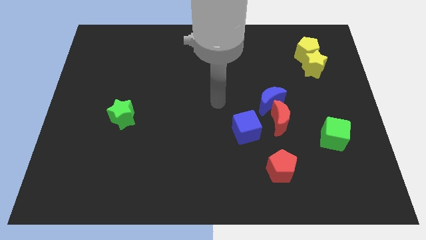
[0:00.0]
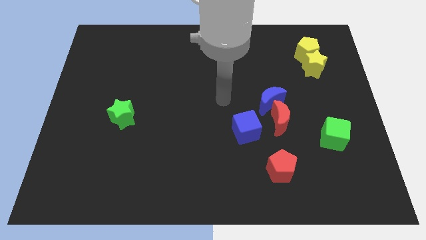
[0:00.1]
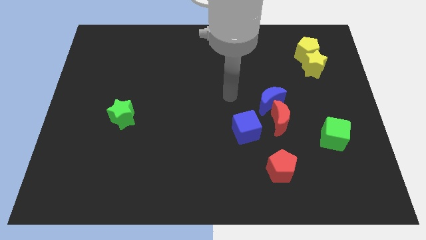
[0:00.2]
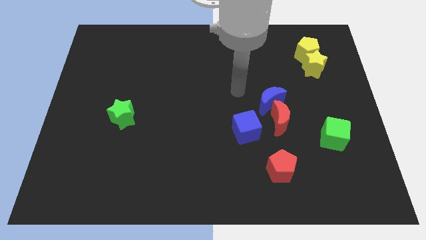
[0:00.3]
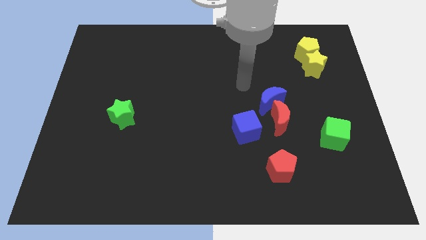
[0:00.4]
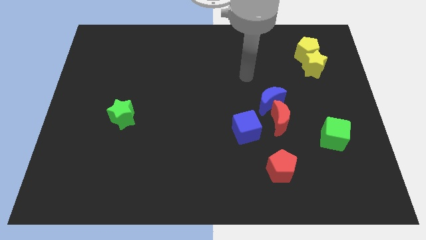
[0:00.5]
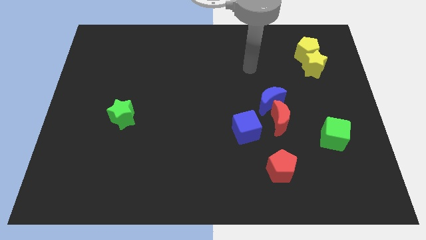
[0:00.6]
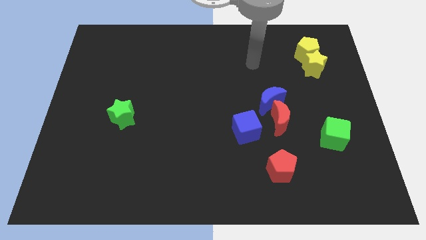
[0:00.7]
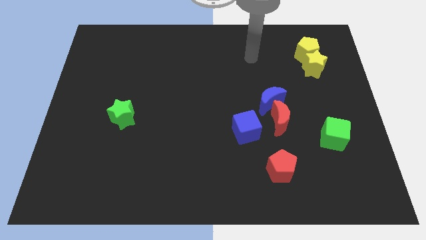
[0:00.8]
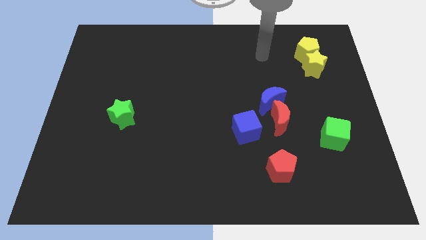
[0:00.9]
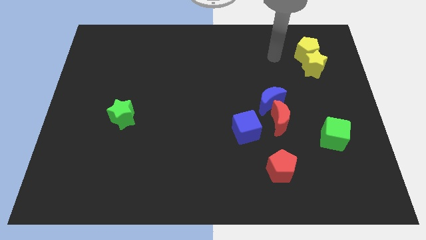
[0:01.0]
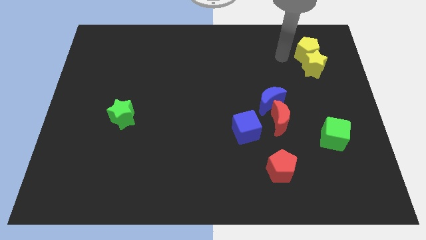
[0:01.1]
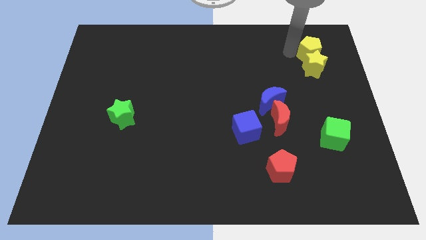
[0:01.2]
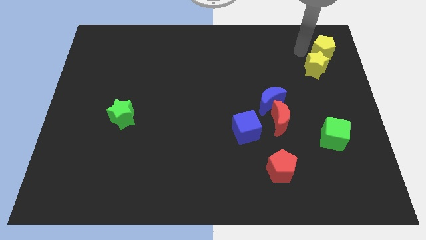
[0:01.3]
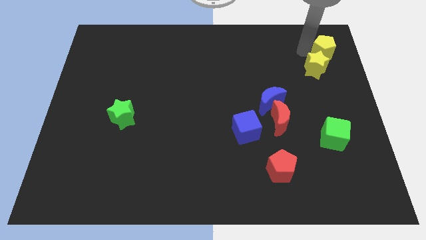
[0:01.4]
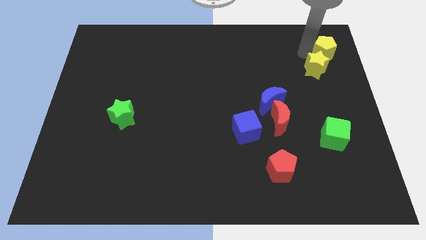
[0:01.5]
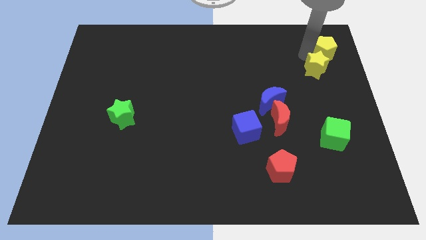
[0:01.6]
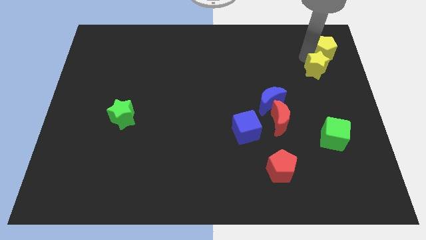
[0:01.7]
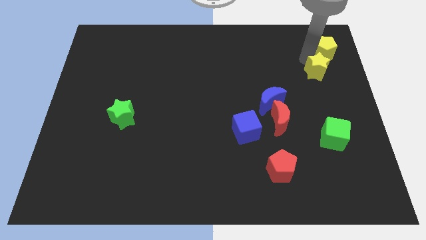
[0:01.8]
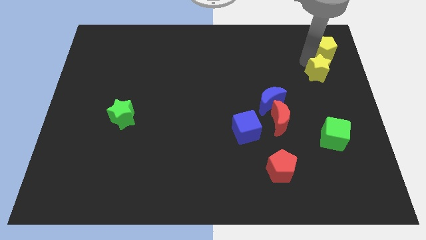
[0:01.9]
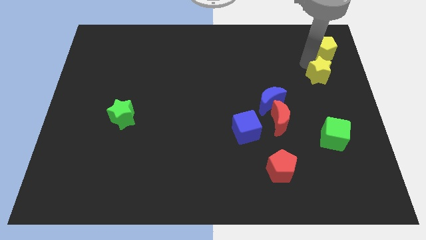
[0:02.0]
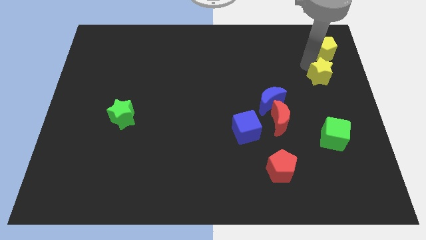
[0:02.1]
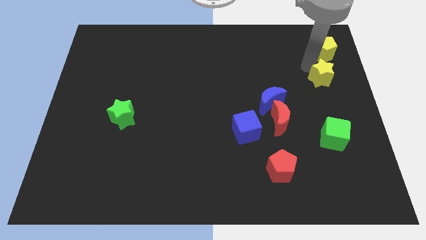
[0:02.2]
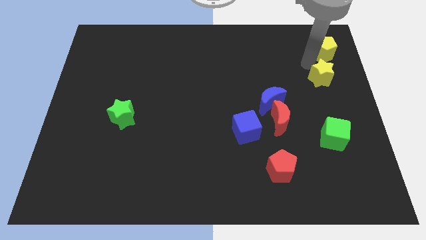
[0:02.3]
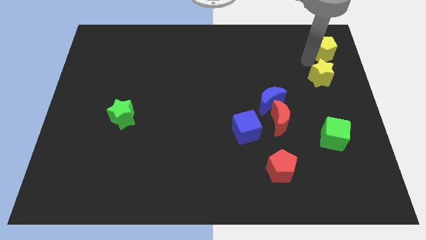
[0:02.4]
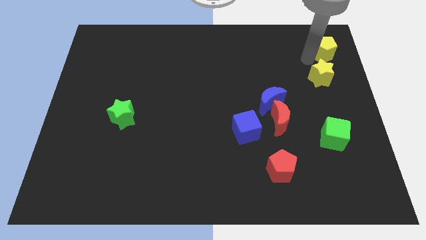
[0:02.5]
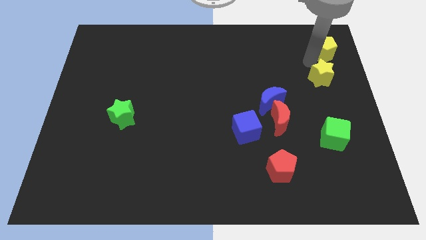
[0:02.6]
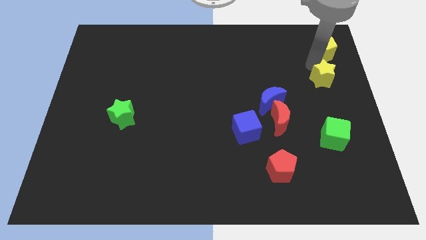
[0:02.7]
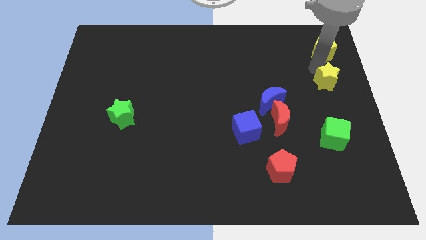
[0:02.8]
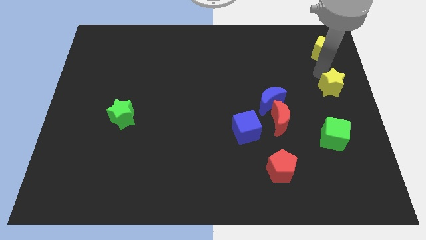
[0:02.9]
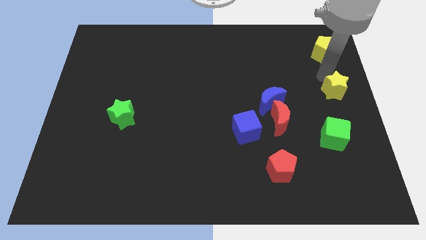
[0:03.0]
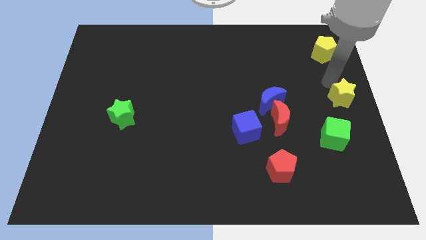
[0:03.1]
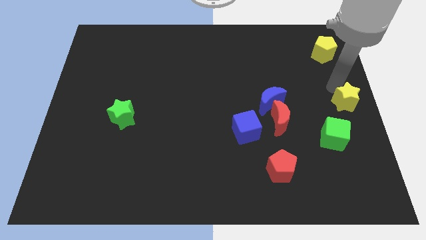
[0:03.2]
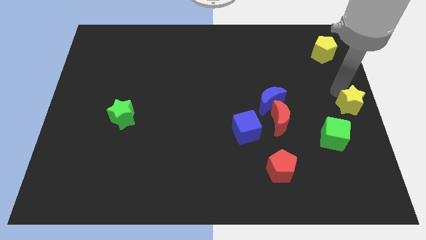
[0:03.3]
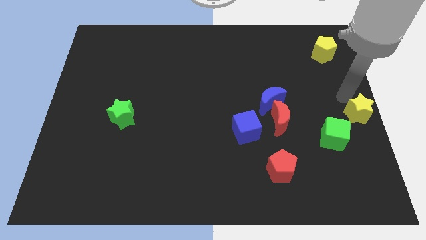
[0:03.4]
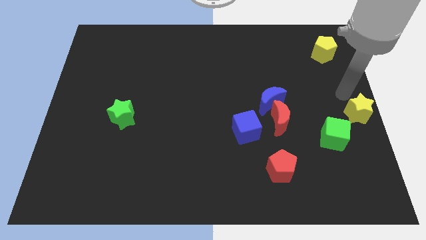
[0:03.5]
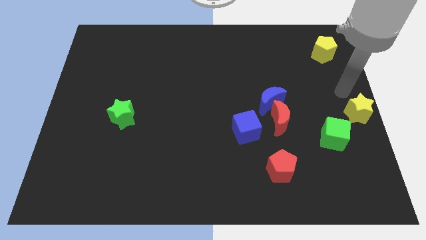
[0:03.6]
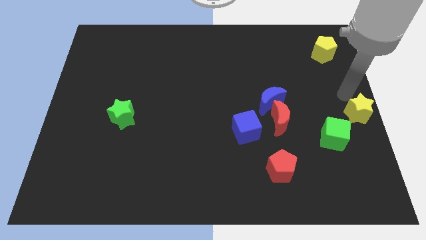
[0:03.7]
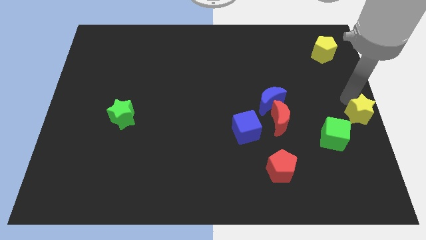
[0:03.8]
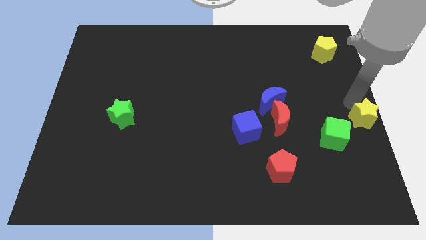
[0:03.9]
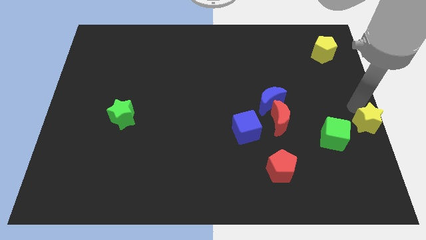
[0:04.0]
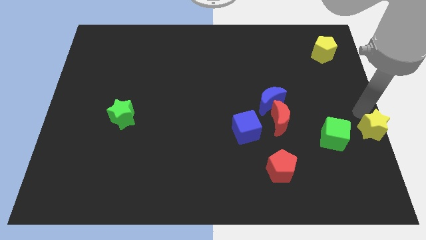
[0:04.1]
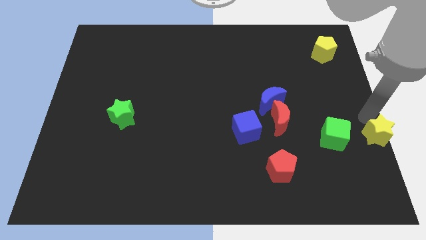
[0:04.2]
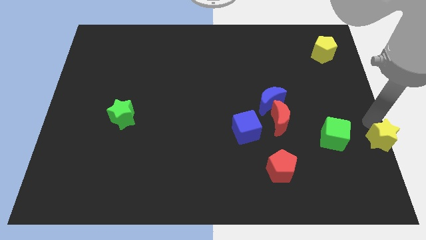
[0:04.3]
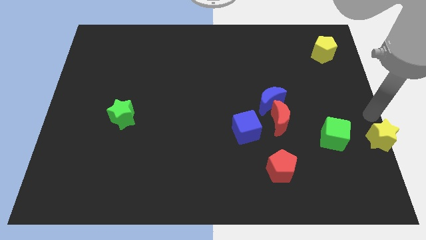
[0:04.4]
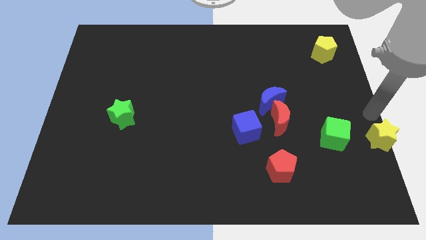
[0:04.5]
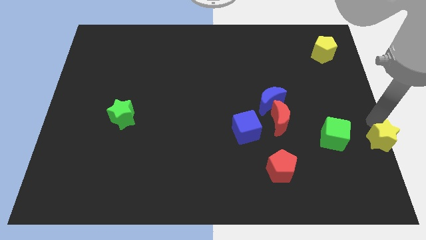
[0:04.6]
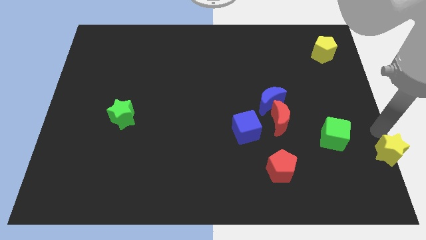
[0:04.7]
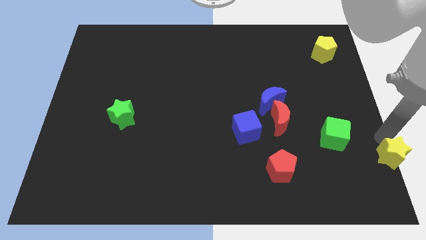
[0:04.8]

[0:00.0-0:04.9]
move the yellow star to the bottom right of the board

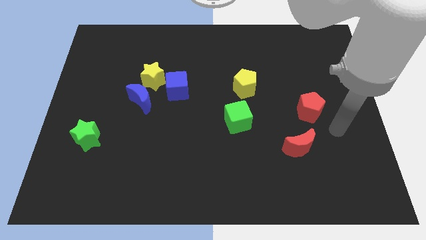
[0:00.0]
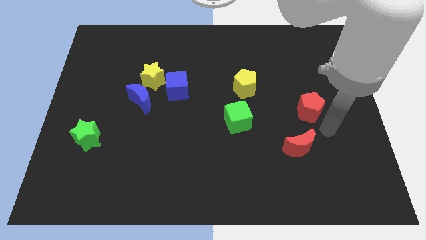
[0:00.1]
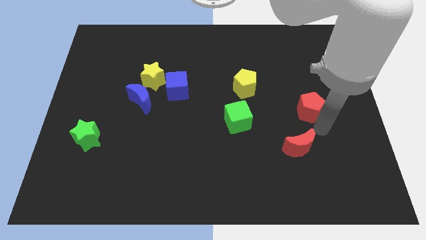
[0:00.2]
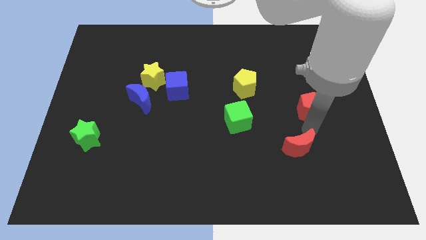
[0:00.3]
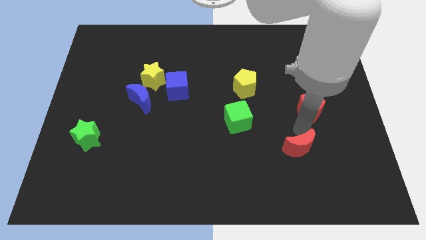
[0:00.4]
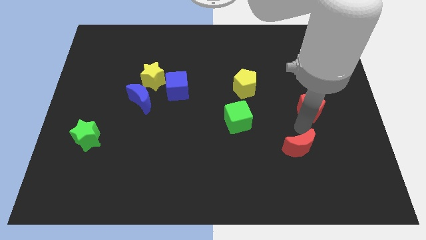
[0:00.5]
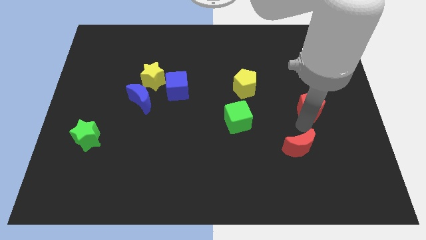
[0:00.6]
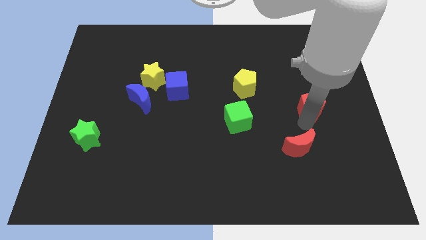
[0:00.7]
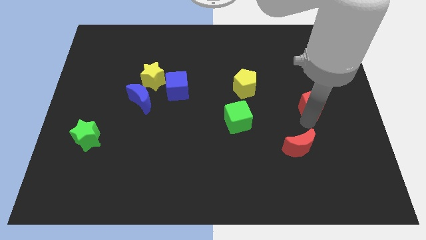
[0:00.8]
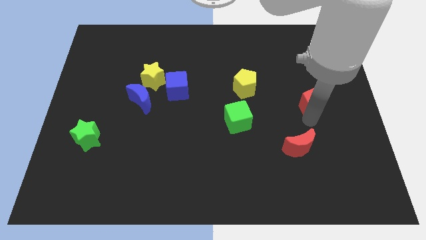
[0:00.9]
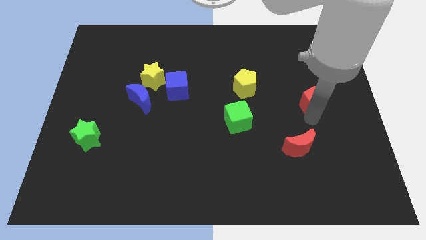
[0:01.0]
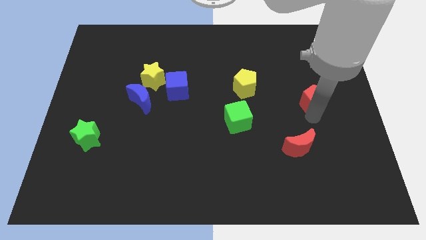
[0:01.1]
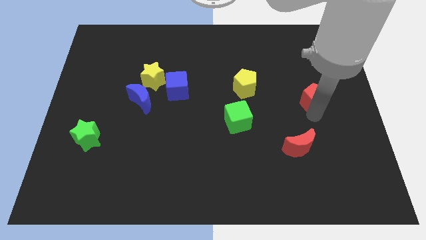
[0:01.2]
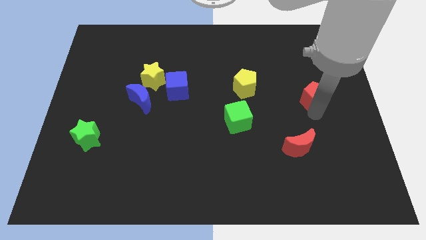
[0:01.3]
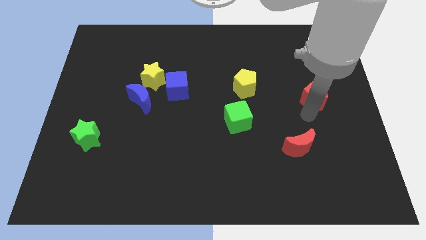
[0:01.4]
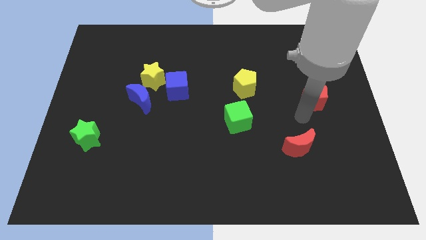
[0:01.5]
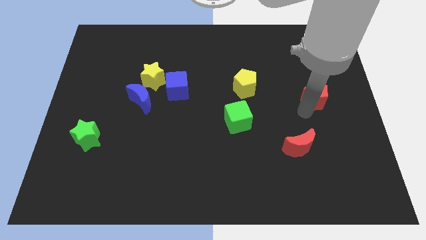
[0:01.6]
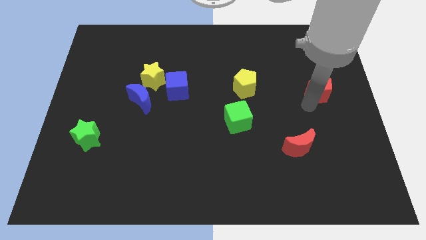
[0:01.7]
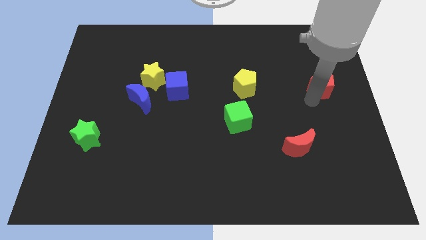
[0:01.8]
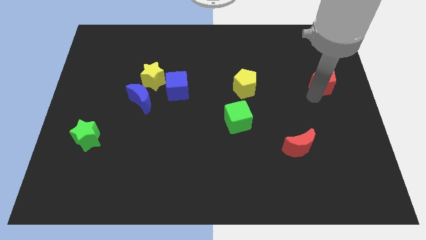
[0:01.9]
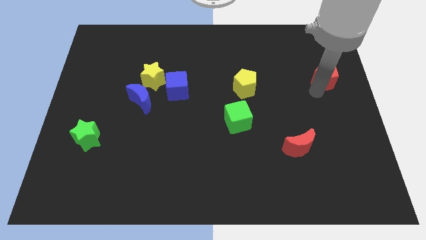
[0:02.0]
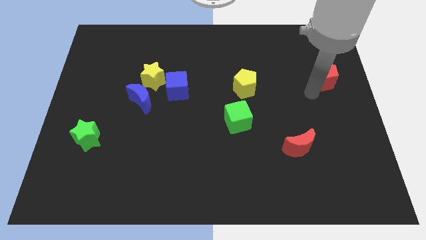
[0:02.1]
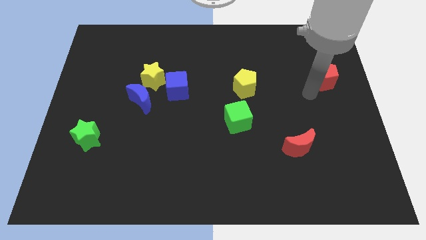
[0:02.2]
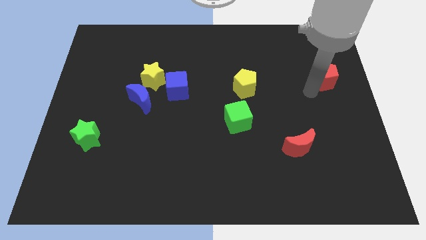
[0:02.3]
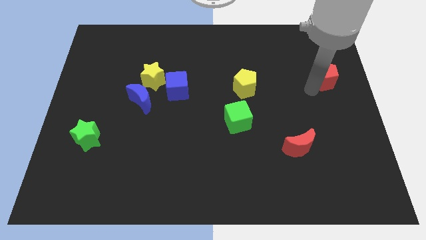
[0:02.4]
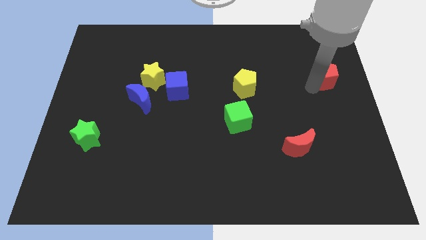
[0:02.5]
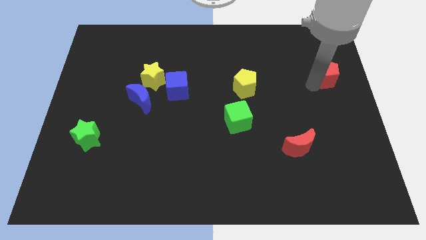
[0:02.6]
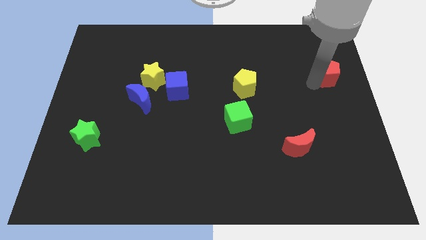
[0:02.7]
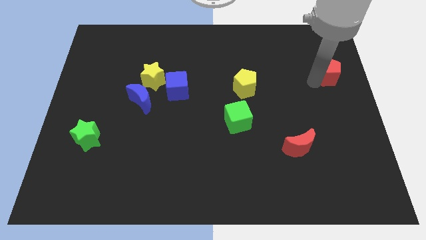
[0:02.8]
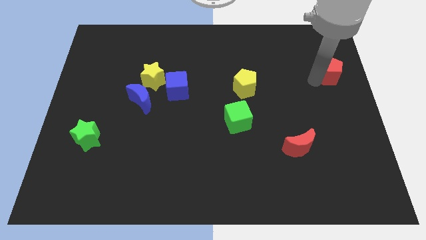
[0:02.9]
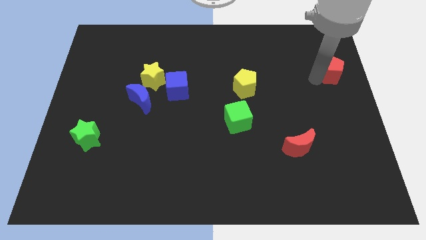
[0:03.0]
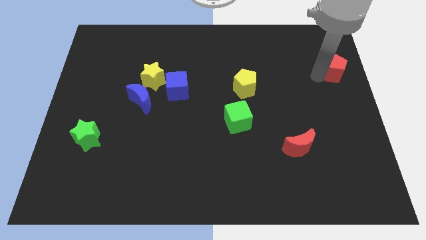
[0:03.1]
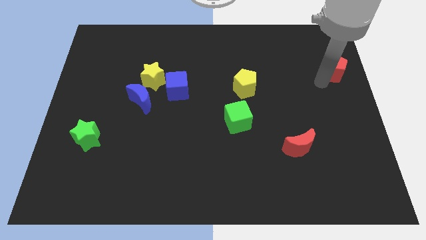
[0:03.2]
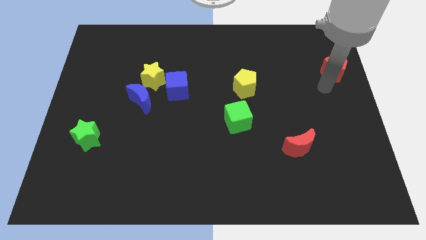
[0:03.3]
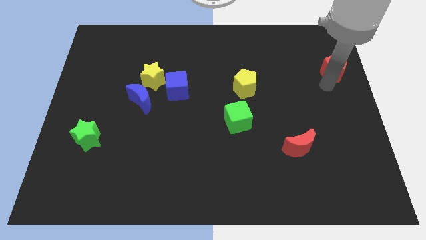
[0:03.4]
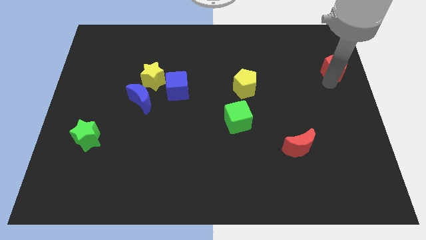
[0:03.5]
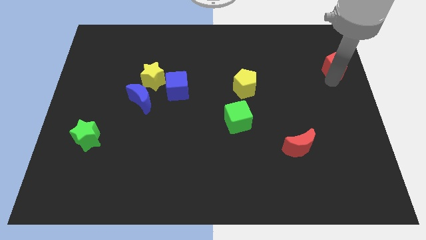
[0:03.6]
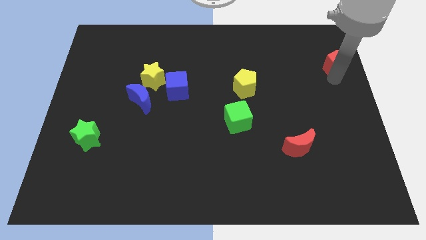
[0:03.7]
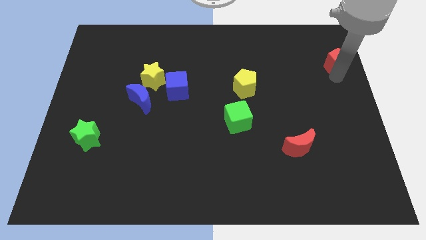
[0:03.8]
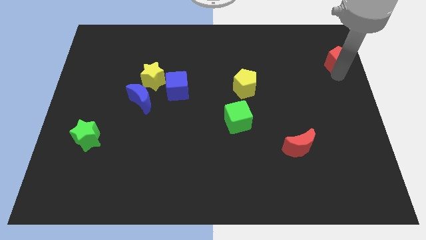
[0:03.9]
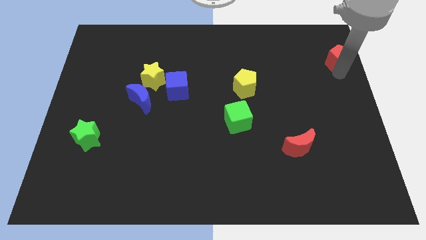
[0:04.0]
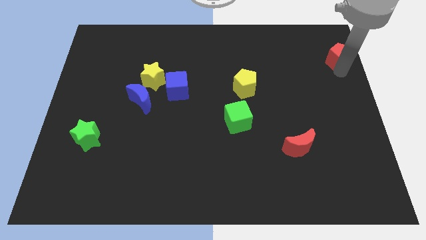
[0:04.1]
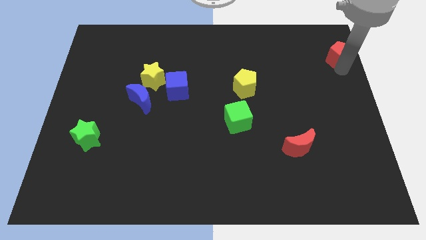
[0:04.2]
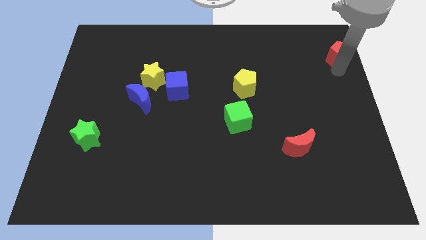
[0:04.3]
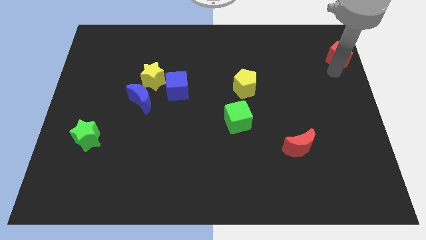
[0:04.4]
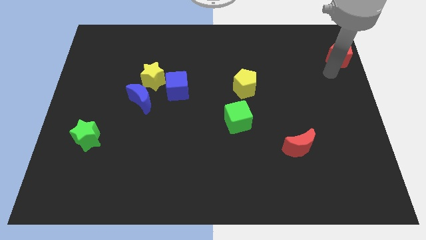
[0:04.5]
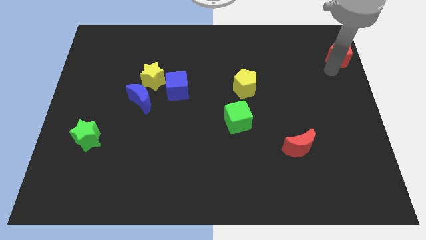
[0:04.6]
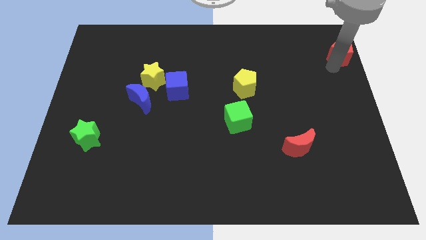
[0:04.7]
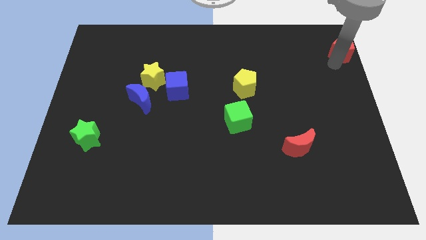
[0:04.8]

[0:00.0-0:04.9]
push the red pentagon to the top right of the board
